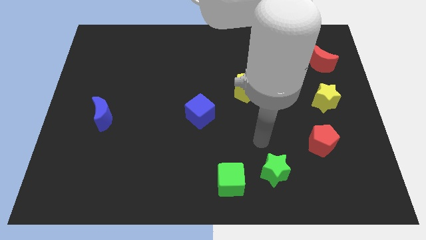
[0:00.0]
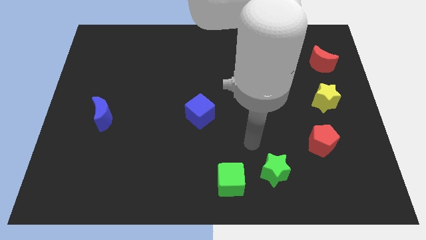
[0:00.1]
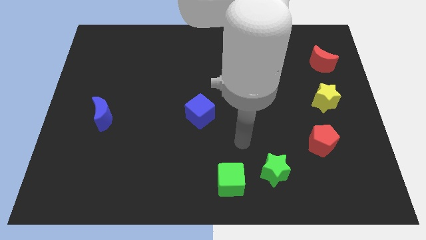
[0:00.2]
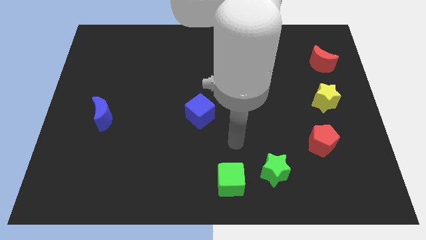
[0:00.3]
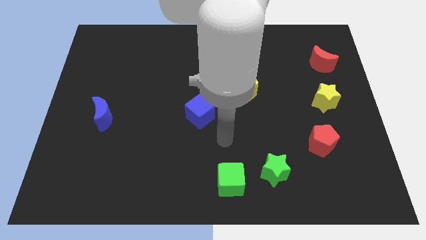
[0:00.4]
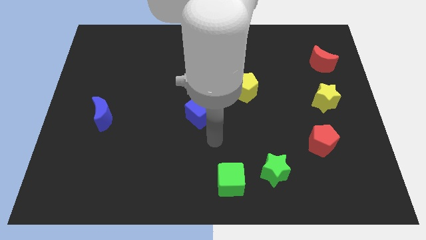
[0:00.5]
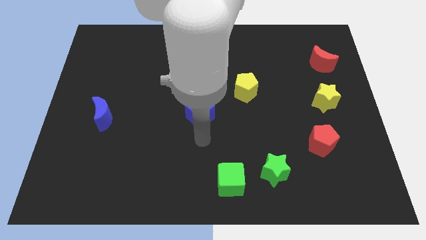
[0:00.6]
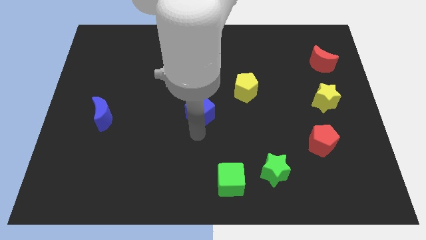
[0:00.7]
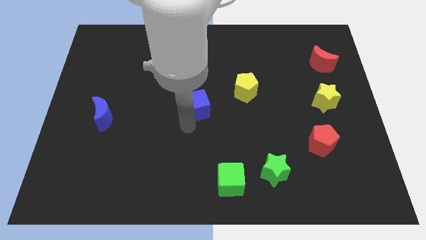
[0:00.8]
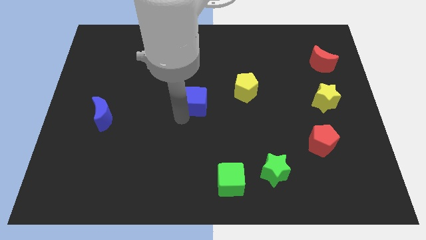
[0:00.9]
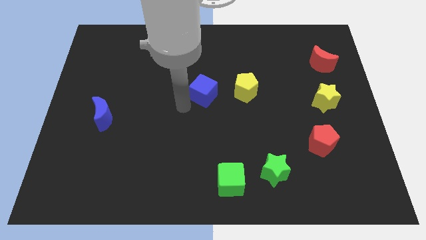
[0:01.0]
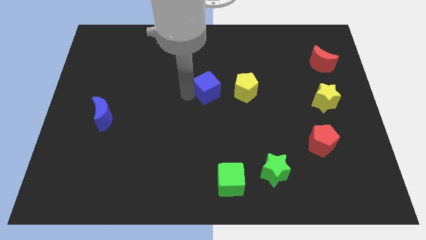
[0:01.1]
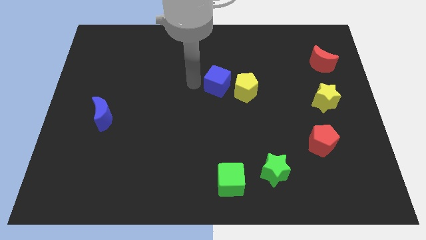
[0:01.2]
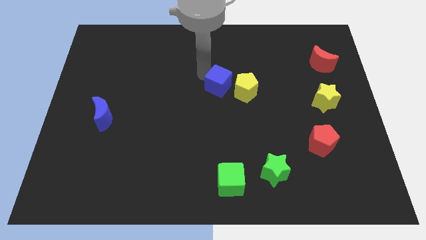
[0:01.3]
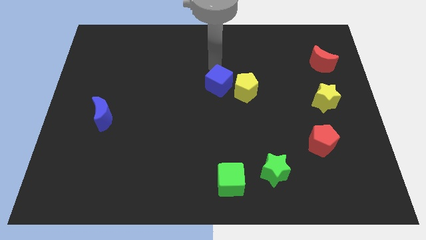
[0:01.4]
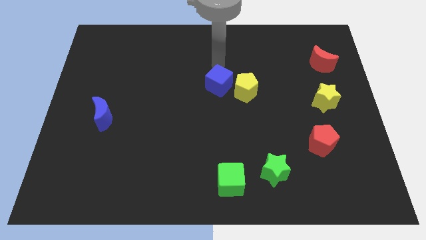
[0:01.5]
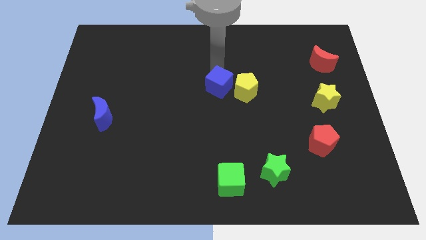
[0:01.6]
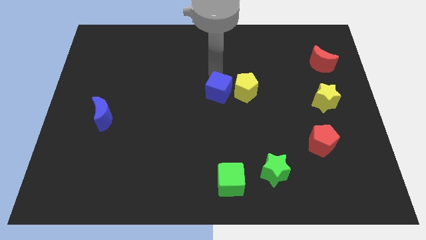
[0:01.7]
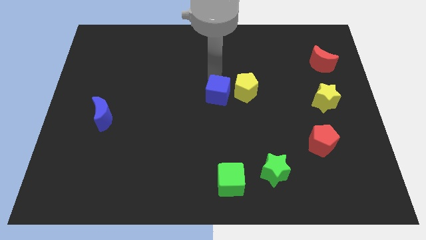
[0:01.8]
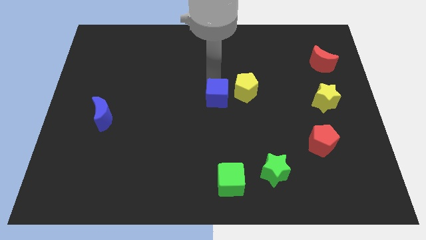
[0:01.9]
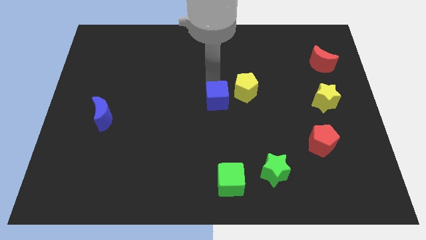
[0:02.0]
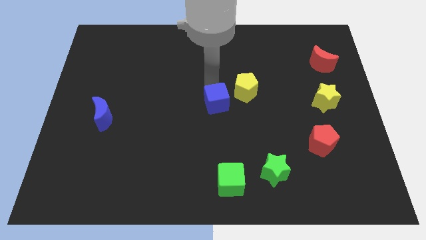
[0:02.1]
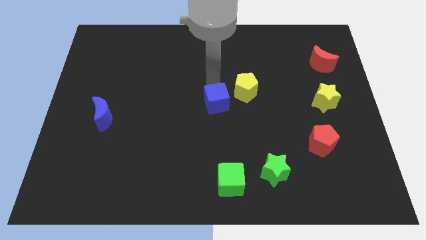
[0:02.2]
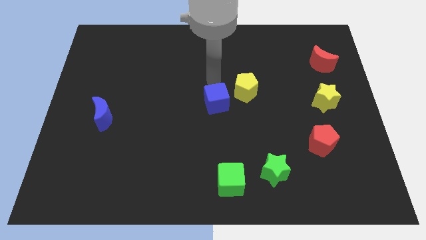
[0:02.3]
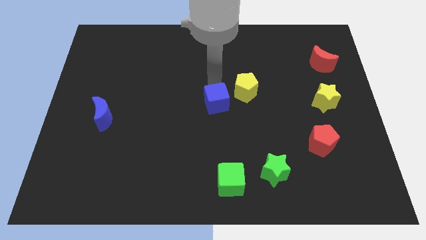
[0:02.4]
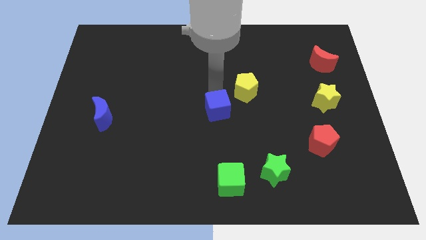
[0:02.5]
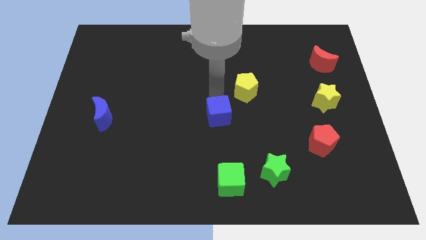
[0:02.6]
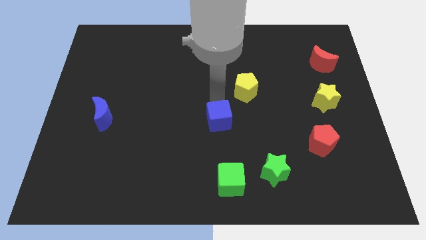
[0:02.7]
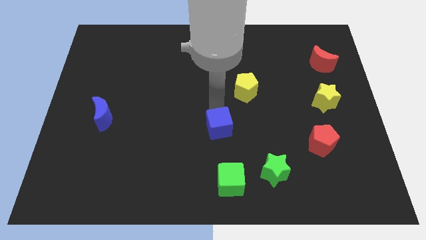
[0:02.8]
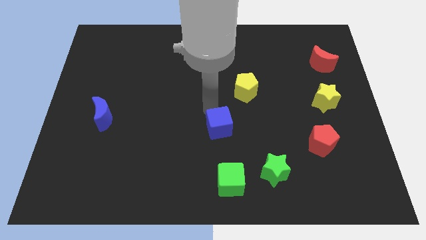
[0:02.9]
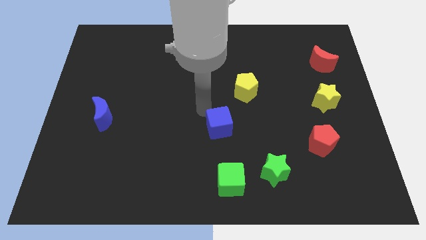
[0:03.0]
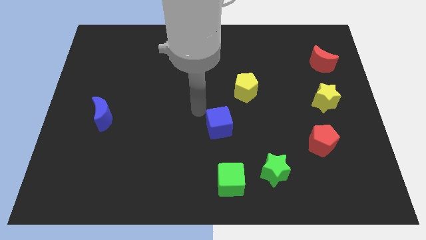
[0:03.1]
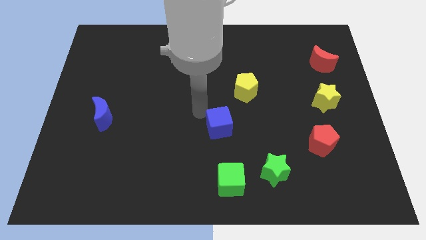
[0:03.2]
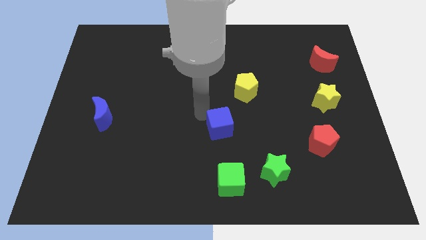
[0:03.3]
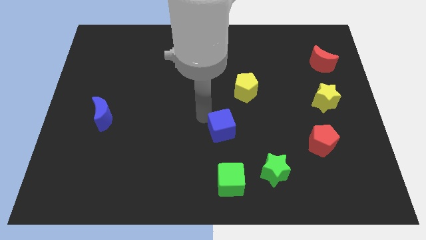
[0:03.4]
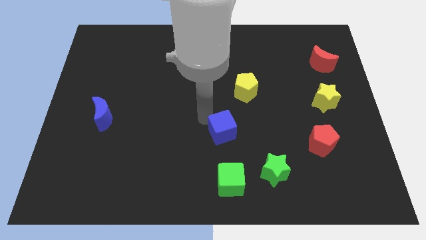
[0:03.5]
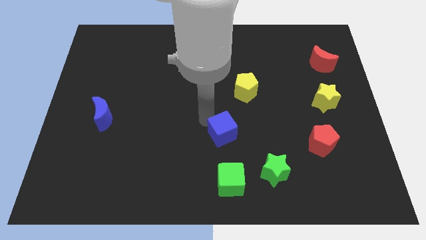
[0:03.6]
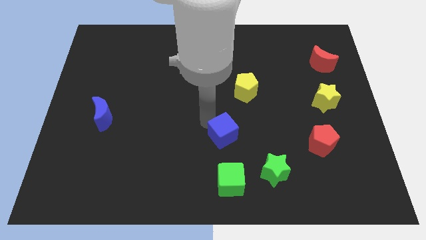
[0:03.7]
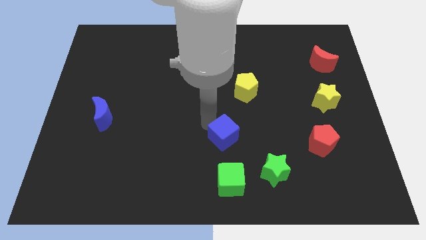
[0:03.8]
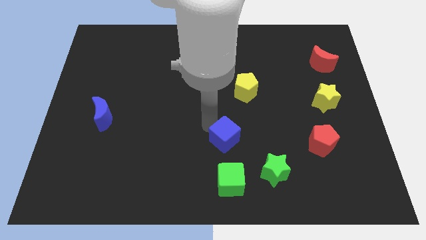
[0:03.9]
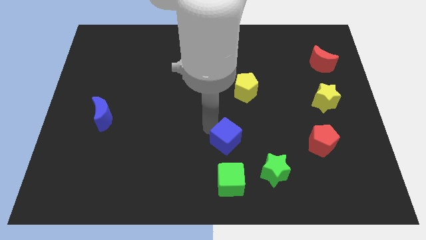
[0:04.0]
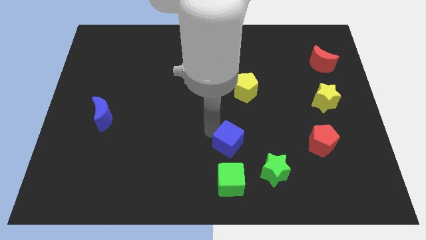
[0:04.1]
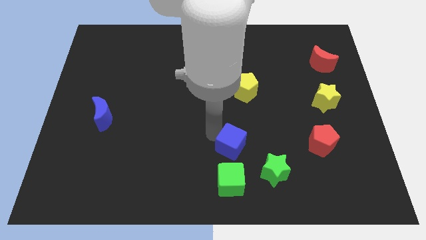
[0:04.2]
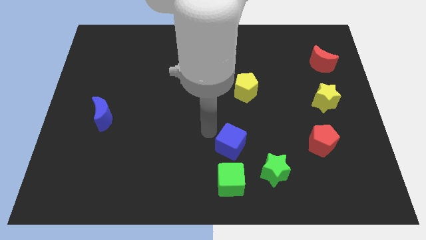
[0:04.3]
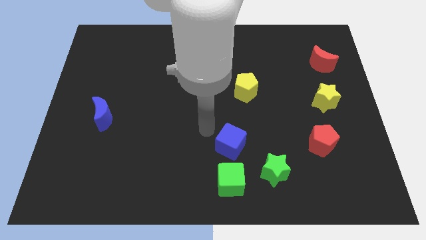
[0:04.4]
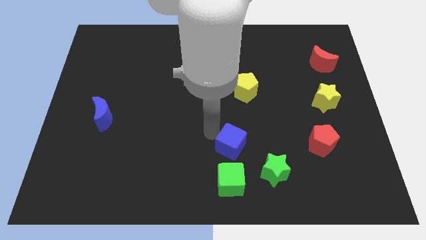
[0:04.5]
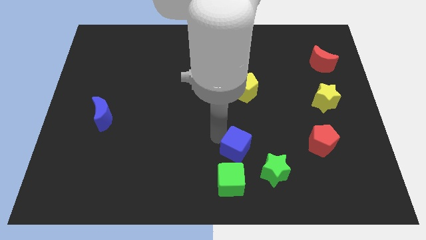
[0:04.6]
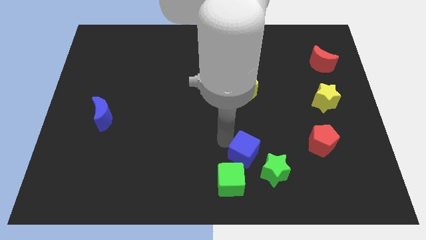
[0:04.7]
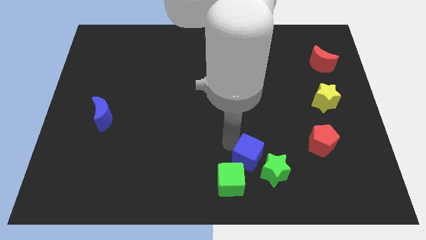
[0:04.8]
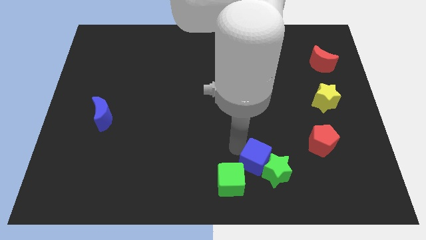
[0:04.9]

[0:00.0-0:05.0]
slide the blue cube close to the green star

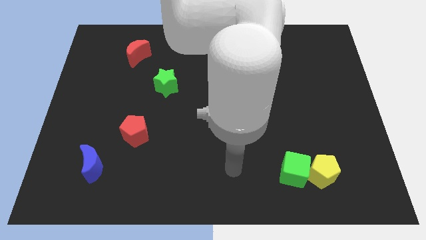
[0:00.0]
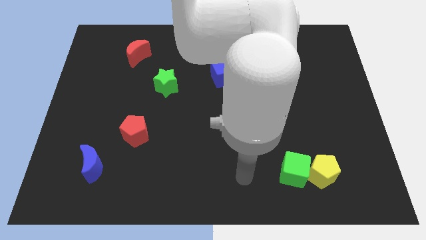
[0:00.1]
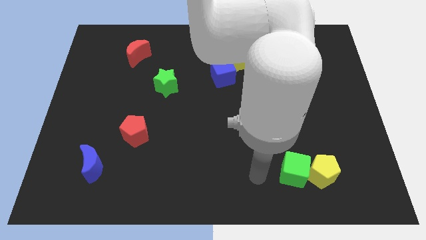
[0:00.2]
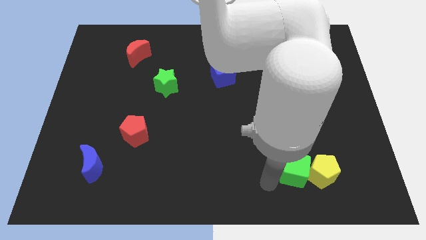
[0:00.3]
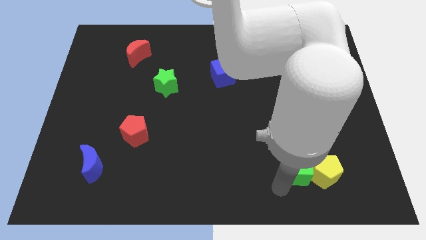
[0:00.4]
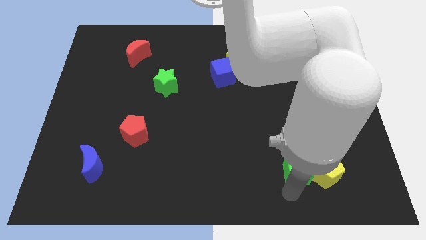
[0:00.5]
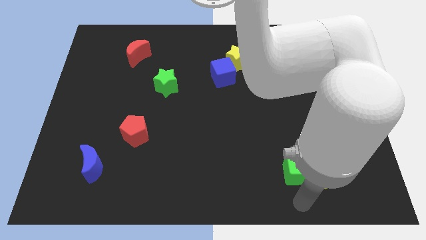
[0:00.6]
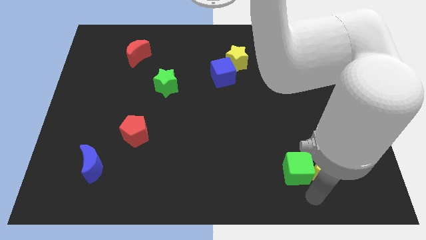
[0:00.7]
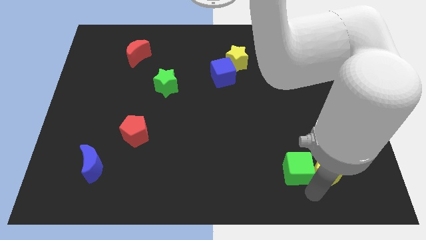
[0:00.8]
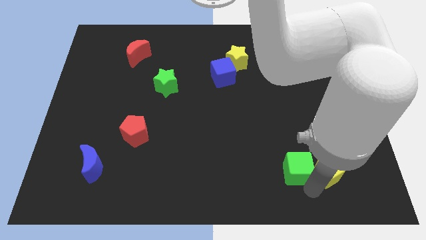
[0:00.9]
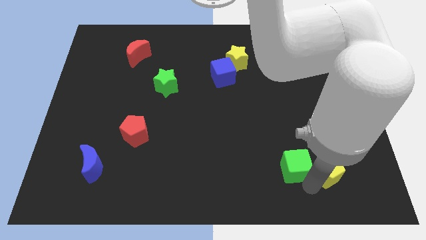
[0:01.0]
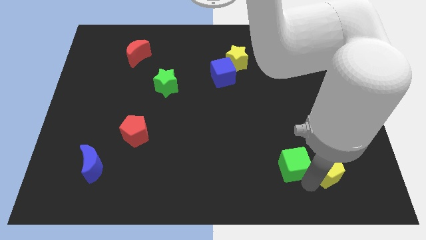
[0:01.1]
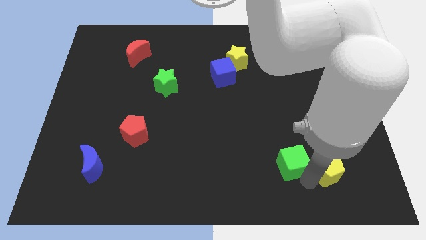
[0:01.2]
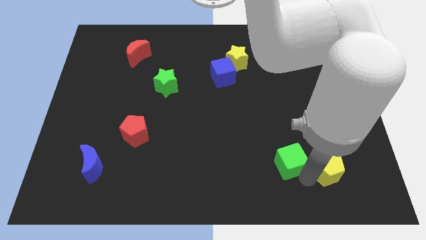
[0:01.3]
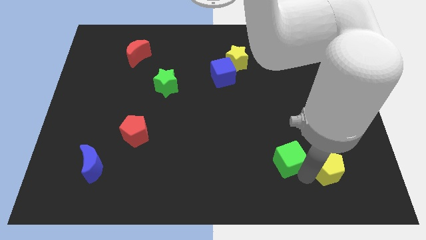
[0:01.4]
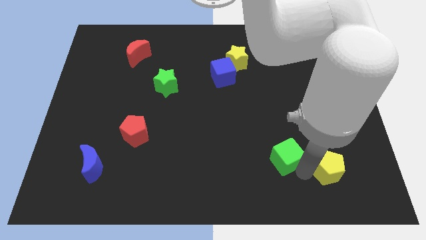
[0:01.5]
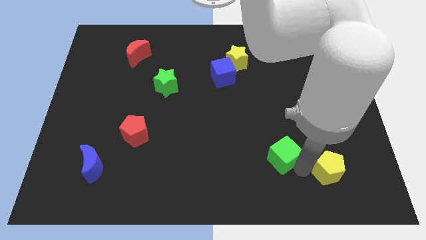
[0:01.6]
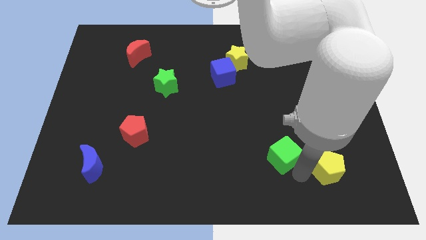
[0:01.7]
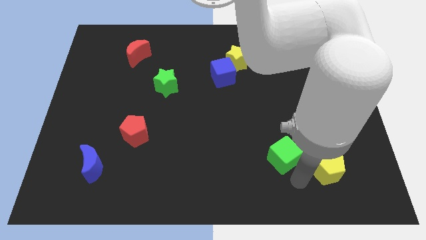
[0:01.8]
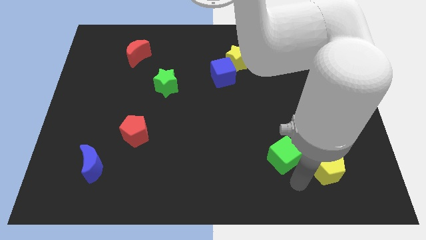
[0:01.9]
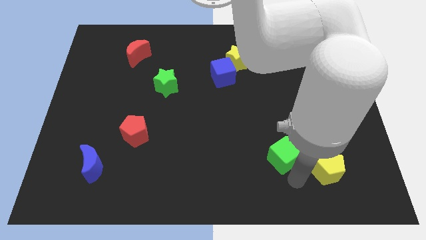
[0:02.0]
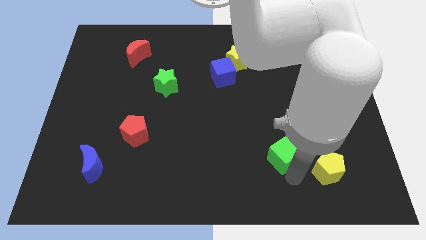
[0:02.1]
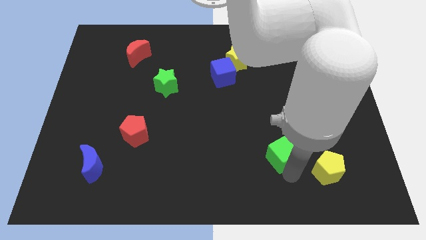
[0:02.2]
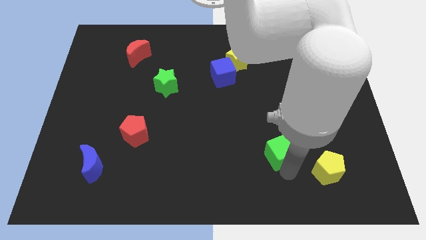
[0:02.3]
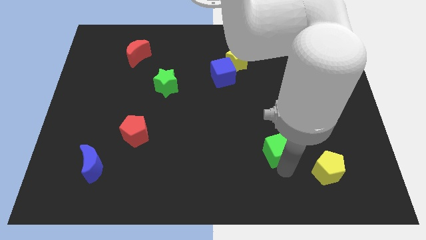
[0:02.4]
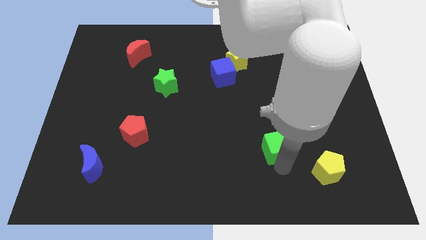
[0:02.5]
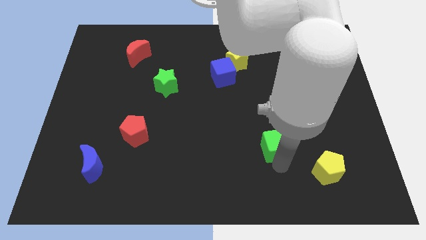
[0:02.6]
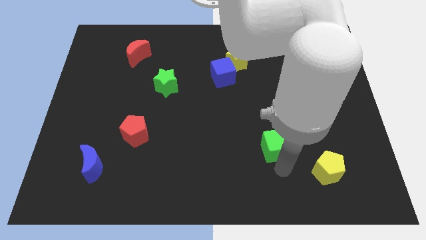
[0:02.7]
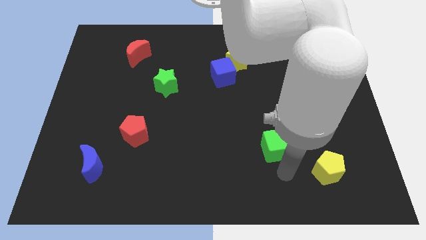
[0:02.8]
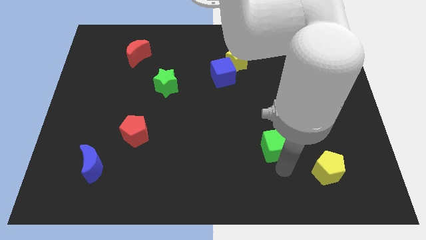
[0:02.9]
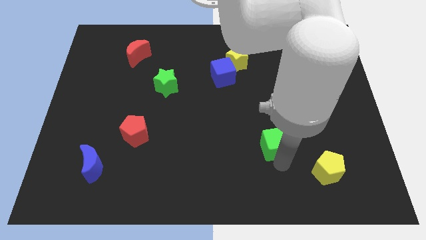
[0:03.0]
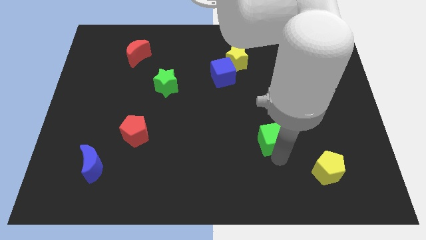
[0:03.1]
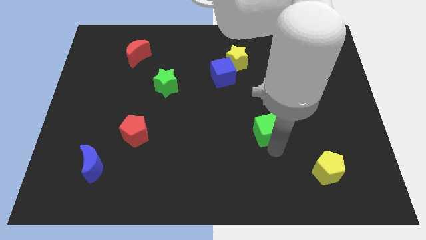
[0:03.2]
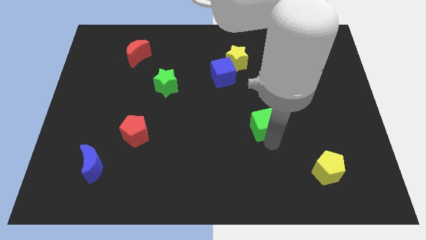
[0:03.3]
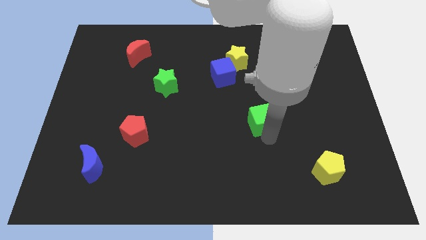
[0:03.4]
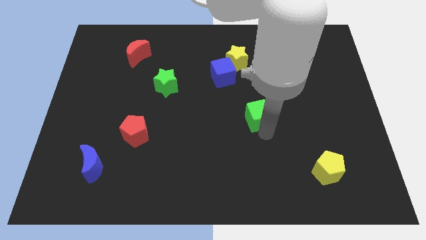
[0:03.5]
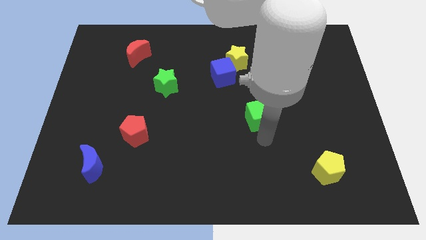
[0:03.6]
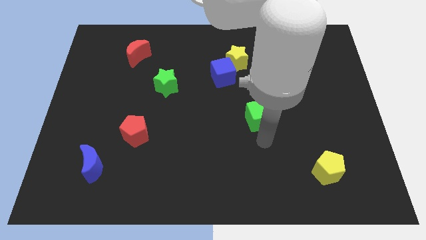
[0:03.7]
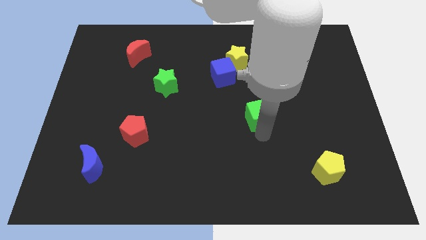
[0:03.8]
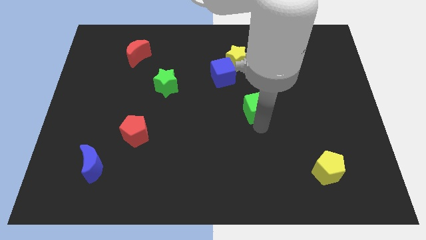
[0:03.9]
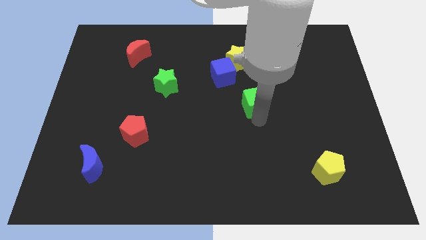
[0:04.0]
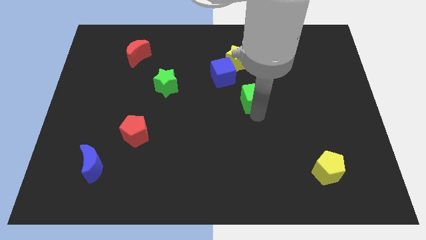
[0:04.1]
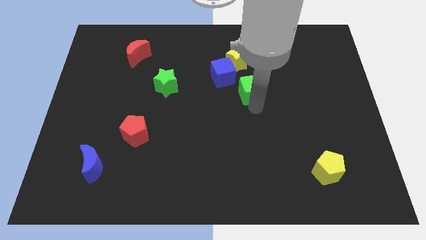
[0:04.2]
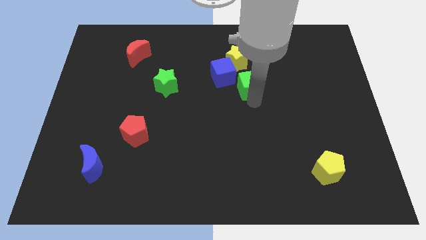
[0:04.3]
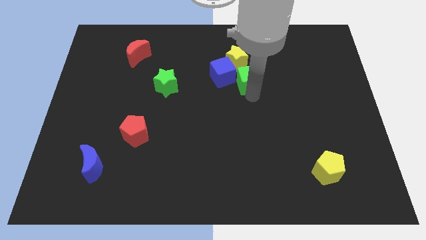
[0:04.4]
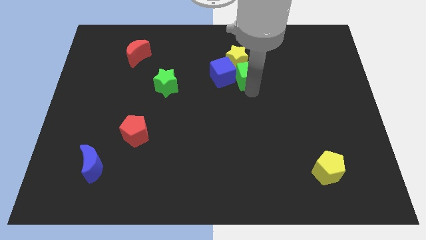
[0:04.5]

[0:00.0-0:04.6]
put the green cube close to the yellow star
